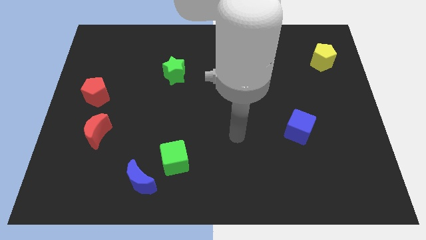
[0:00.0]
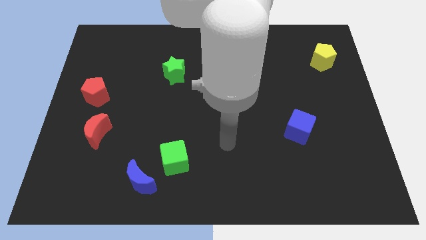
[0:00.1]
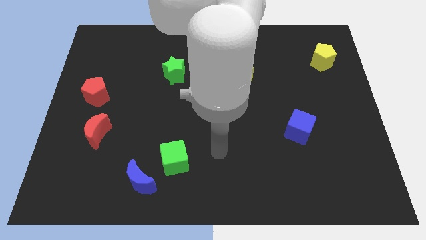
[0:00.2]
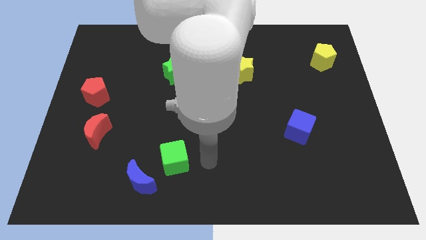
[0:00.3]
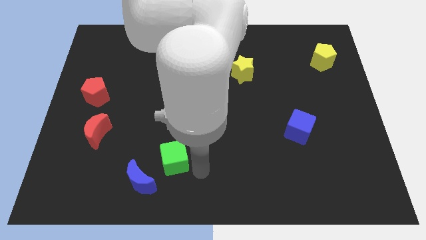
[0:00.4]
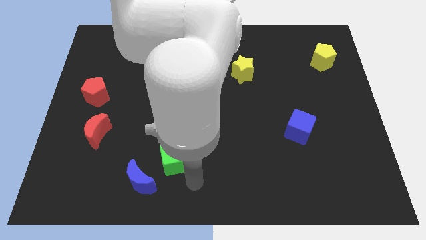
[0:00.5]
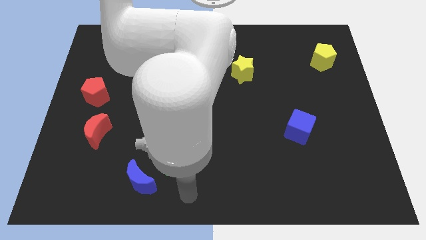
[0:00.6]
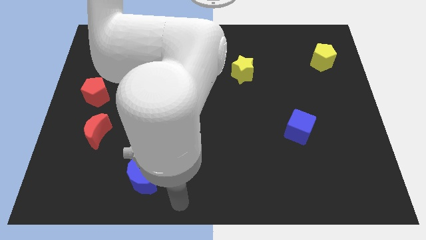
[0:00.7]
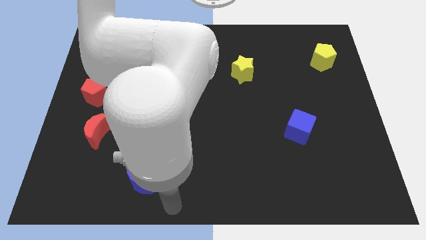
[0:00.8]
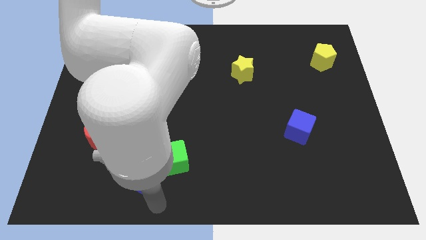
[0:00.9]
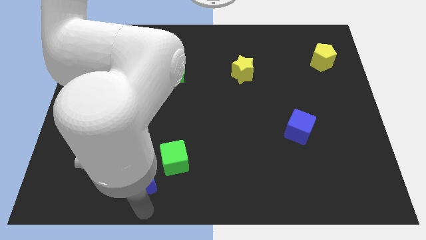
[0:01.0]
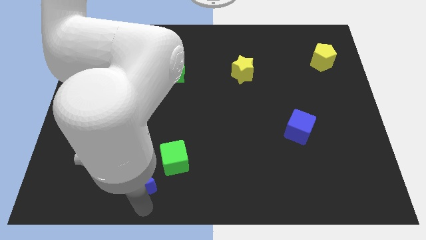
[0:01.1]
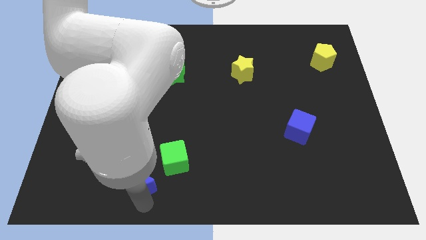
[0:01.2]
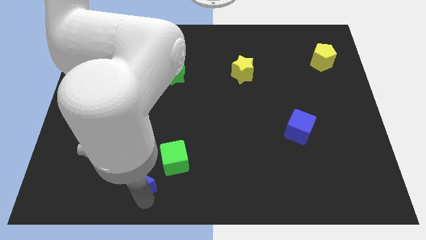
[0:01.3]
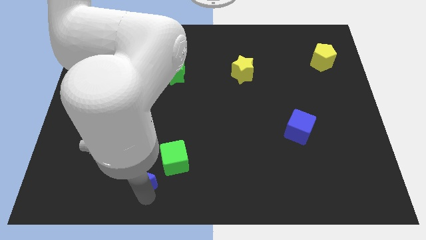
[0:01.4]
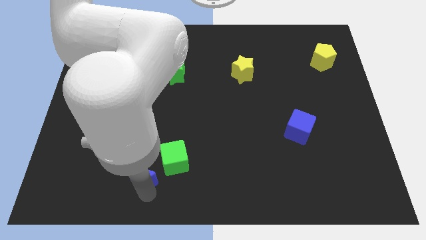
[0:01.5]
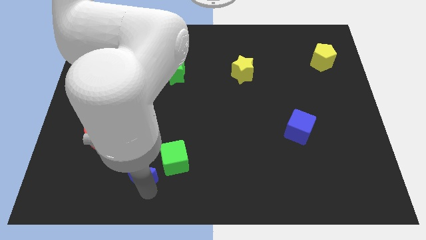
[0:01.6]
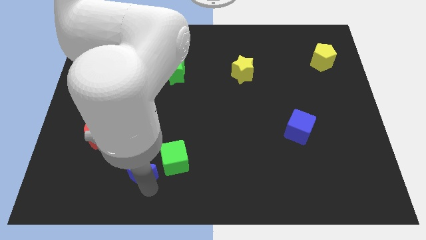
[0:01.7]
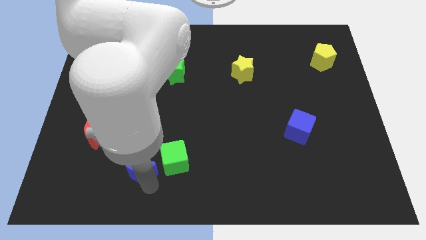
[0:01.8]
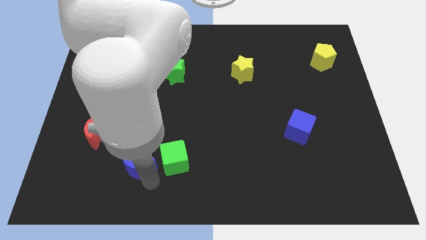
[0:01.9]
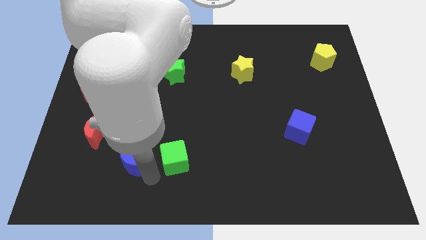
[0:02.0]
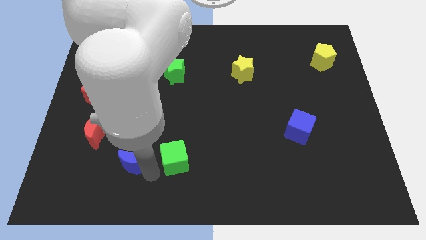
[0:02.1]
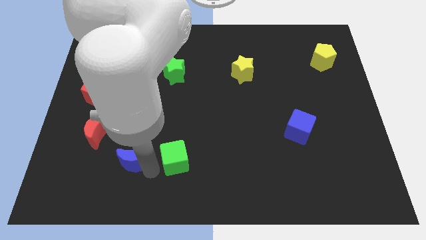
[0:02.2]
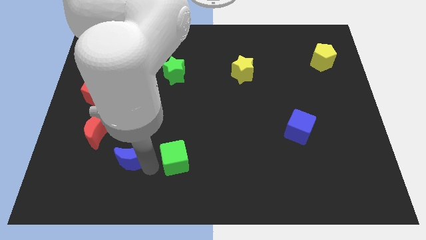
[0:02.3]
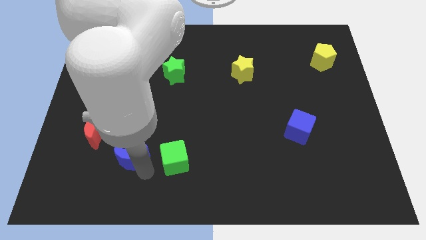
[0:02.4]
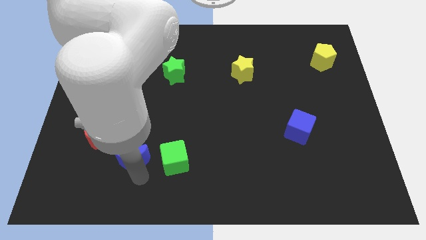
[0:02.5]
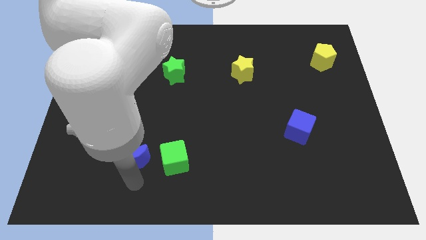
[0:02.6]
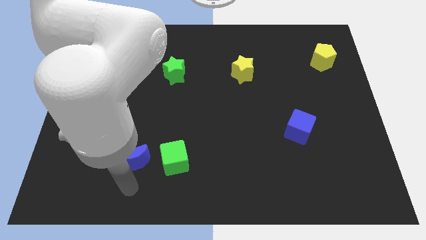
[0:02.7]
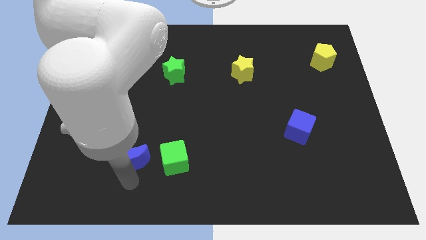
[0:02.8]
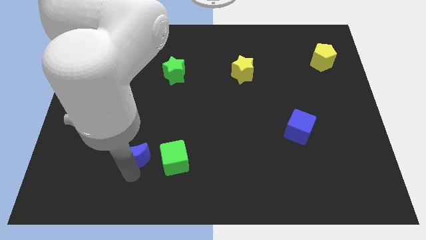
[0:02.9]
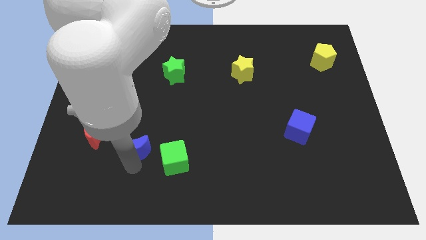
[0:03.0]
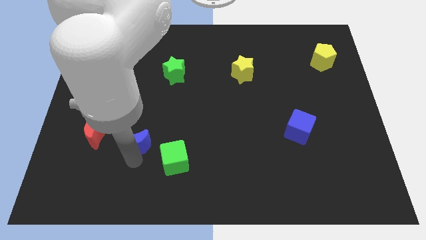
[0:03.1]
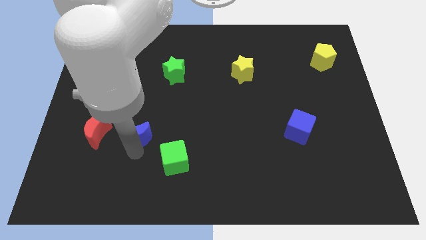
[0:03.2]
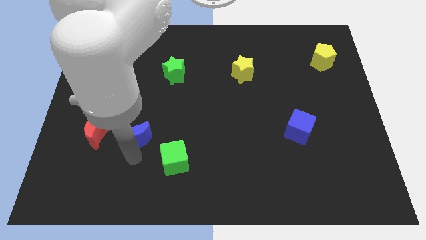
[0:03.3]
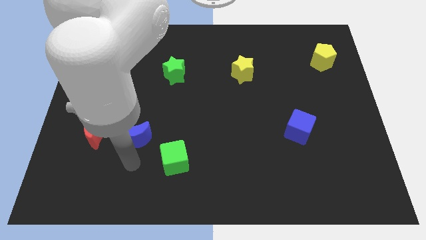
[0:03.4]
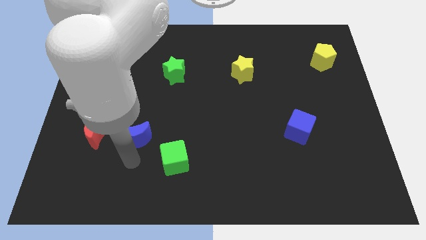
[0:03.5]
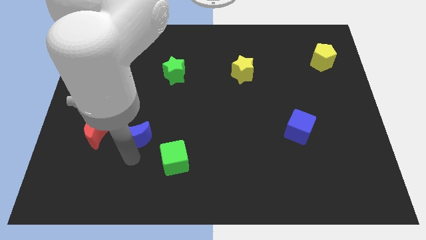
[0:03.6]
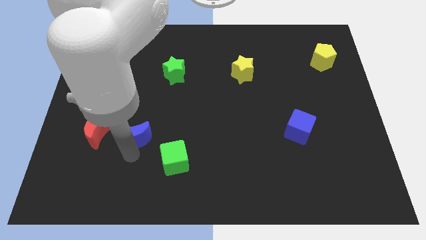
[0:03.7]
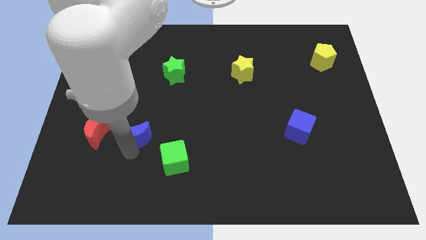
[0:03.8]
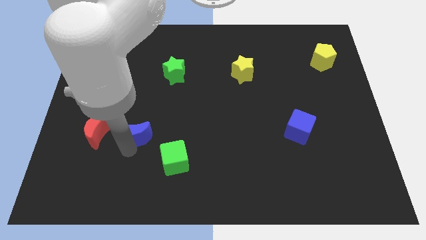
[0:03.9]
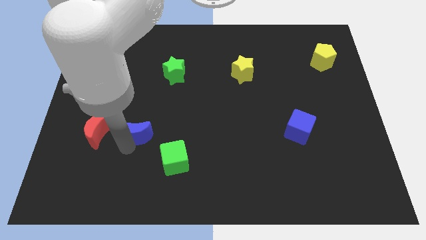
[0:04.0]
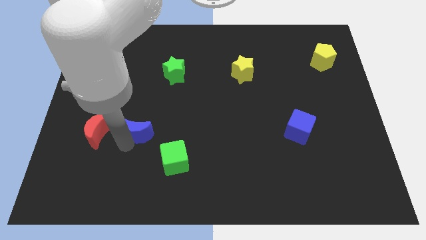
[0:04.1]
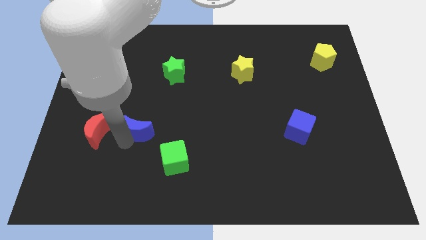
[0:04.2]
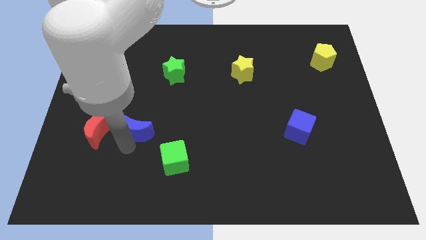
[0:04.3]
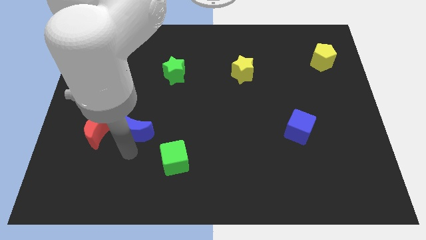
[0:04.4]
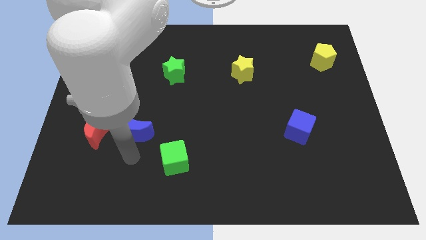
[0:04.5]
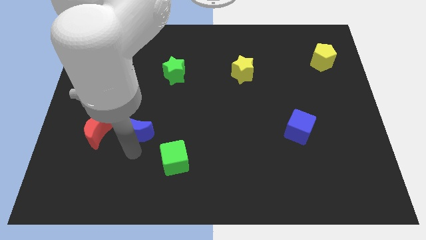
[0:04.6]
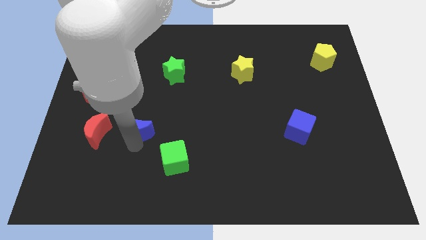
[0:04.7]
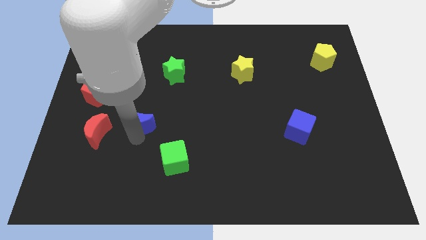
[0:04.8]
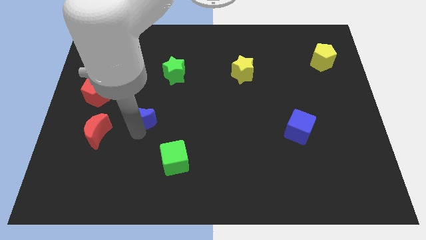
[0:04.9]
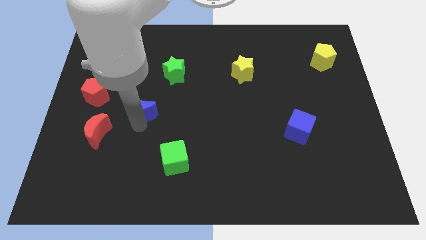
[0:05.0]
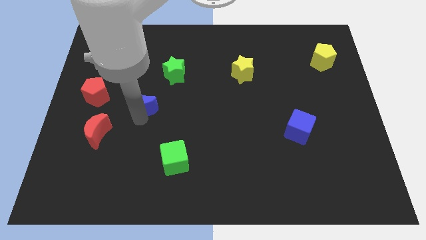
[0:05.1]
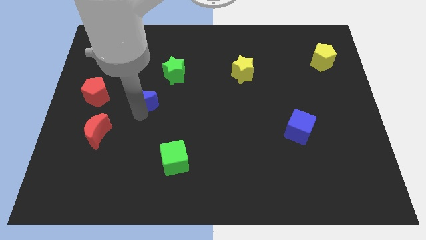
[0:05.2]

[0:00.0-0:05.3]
move the blue moon upwards

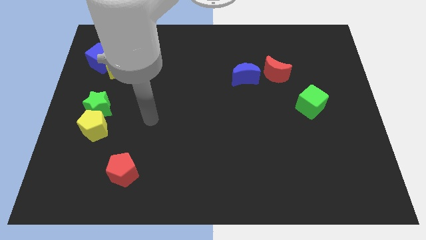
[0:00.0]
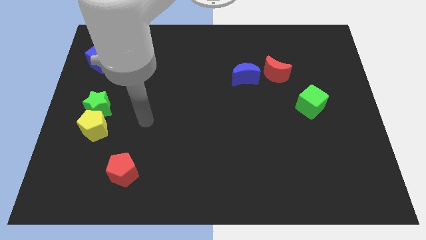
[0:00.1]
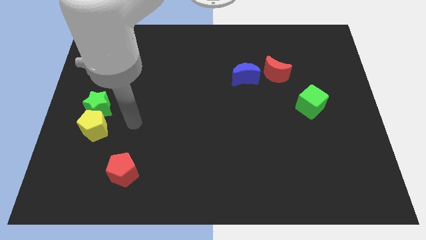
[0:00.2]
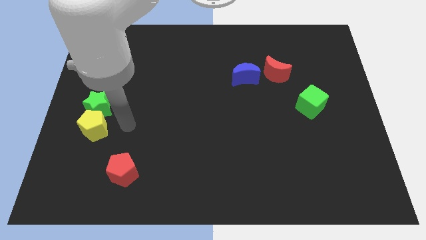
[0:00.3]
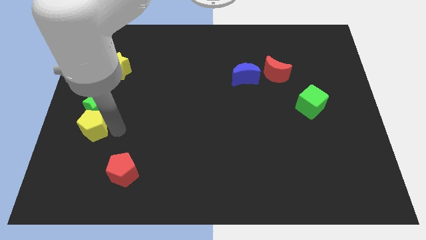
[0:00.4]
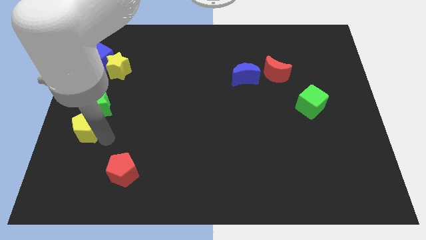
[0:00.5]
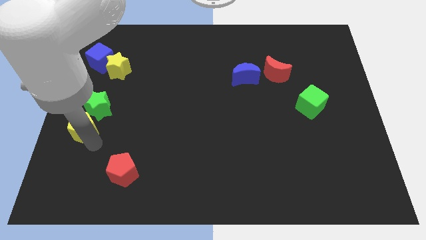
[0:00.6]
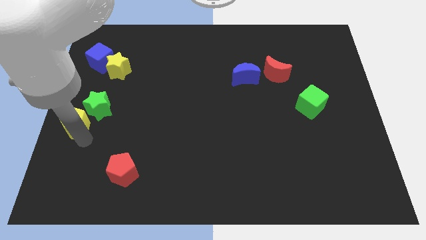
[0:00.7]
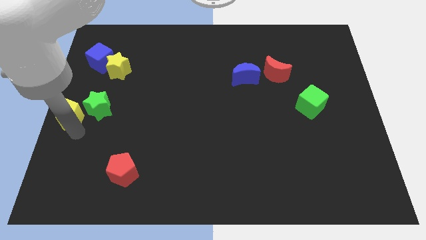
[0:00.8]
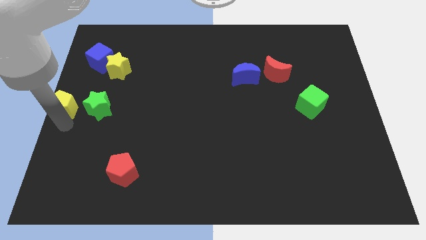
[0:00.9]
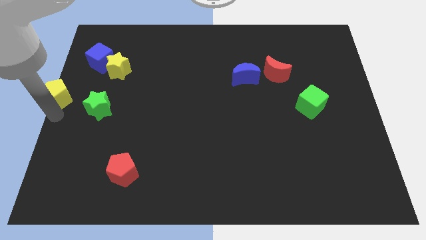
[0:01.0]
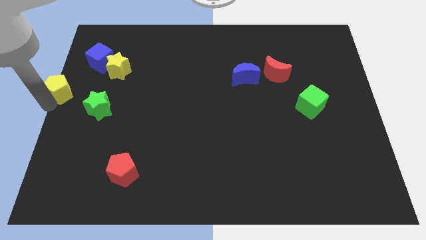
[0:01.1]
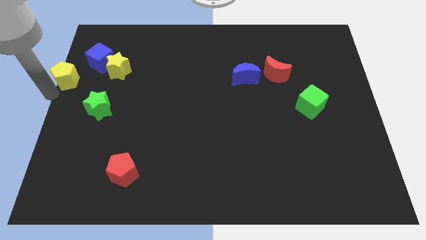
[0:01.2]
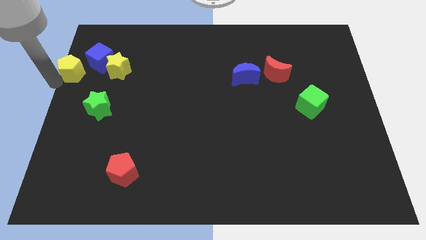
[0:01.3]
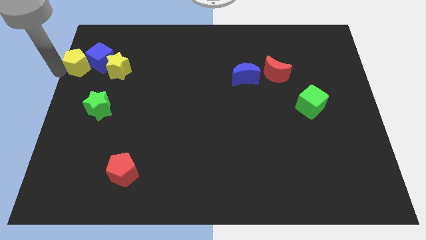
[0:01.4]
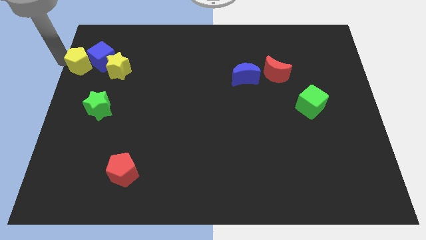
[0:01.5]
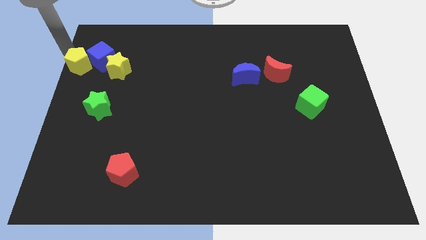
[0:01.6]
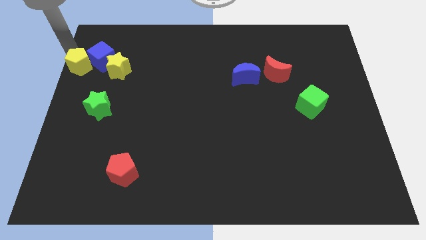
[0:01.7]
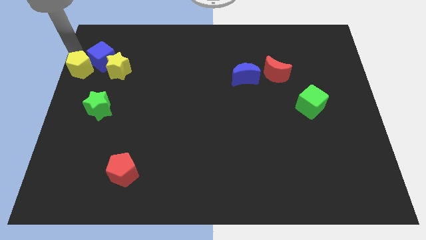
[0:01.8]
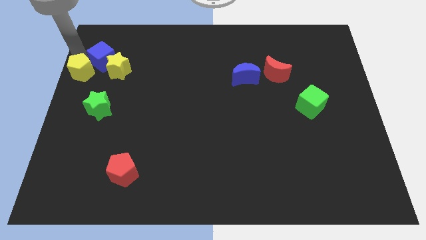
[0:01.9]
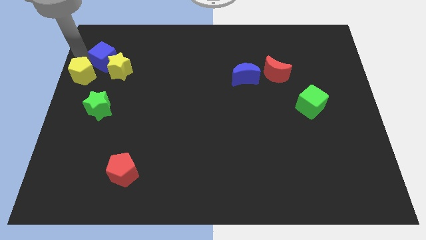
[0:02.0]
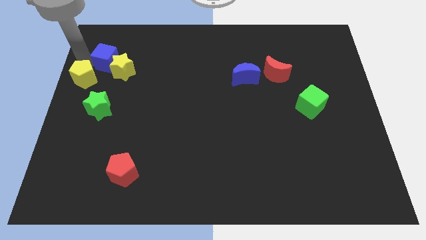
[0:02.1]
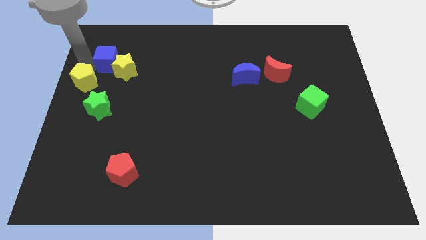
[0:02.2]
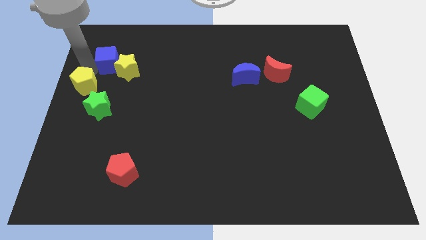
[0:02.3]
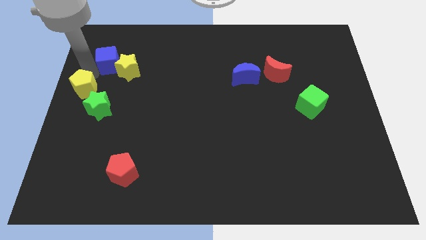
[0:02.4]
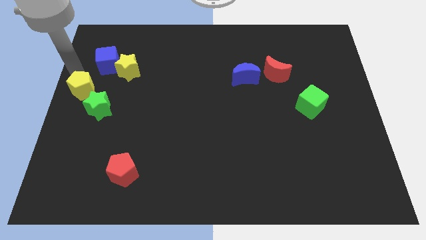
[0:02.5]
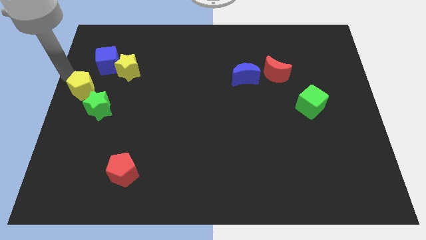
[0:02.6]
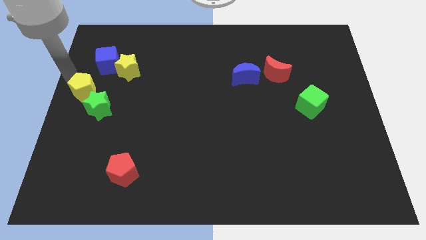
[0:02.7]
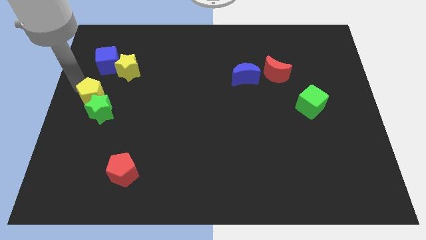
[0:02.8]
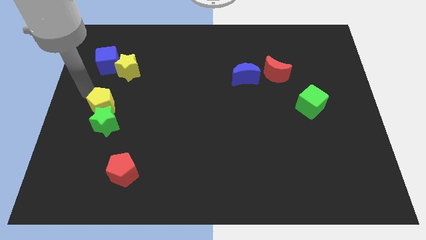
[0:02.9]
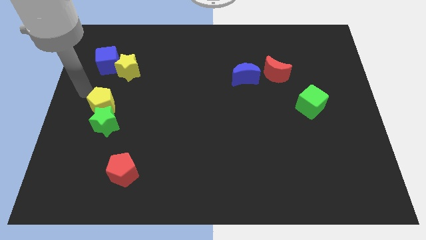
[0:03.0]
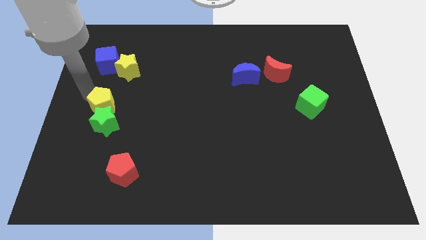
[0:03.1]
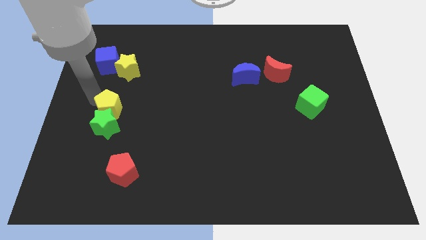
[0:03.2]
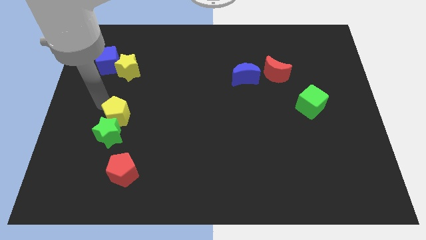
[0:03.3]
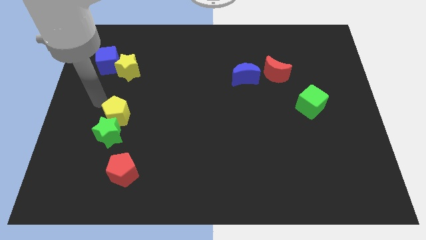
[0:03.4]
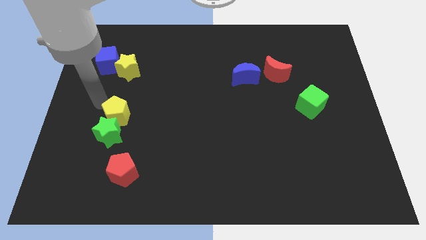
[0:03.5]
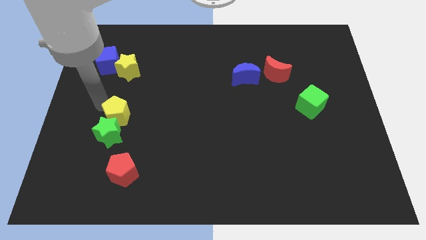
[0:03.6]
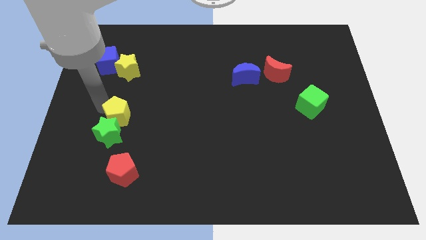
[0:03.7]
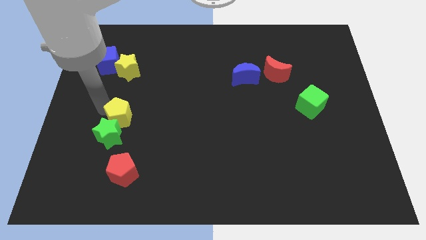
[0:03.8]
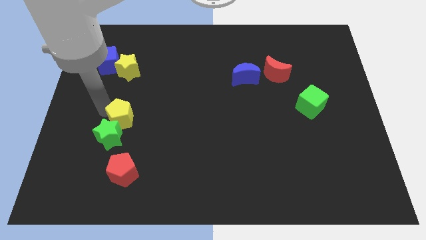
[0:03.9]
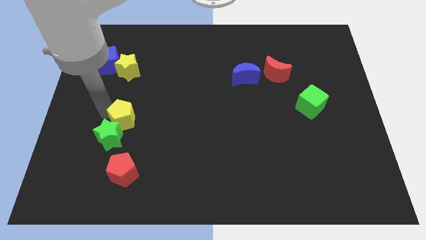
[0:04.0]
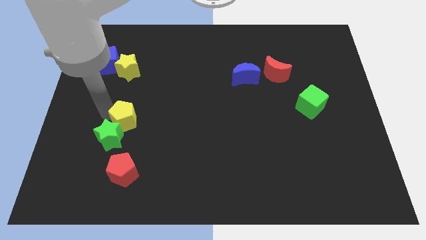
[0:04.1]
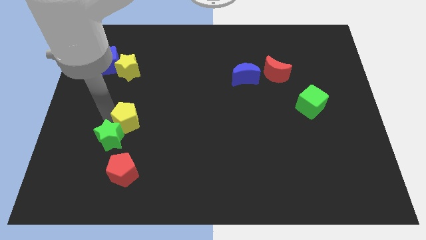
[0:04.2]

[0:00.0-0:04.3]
slightly slide the yellow pentagon to the right
